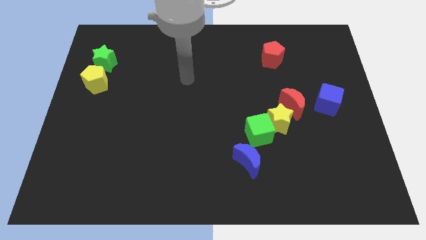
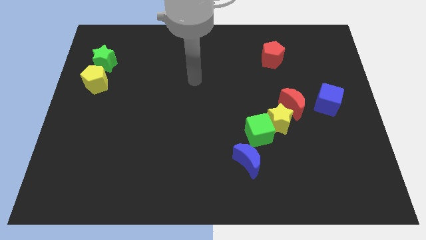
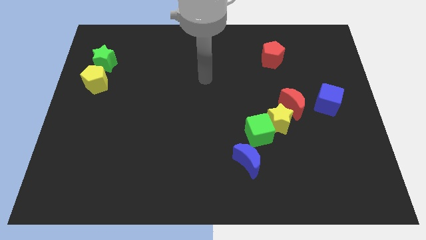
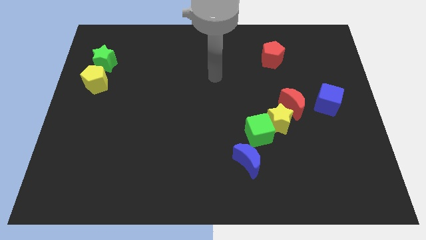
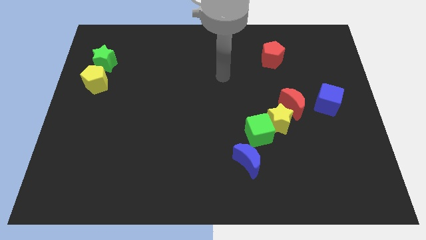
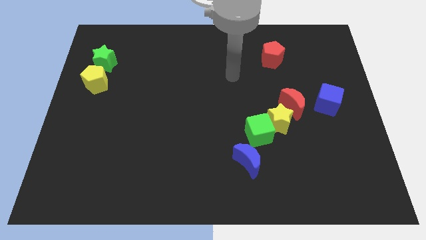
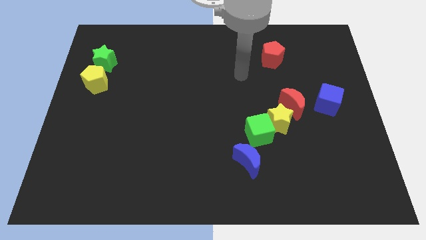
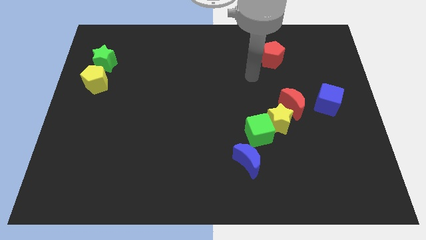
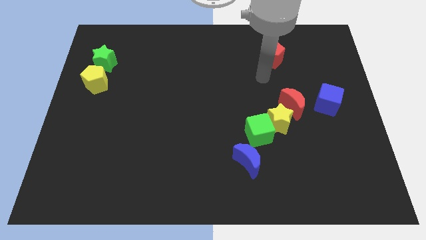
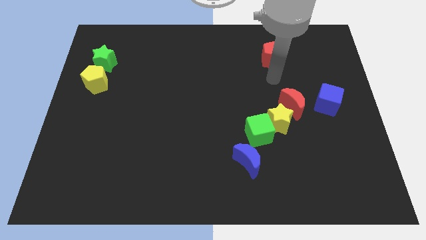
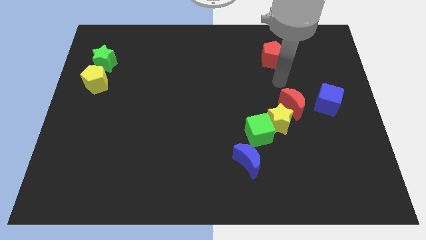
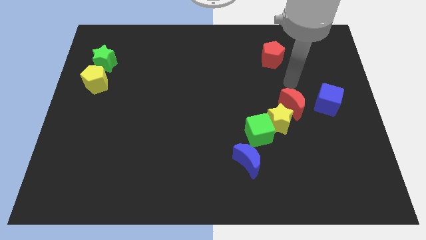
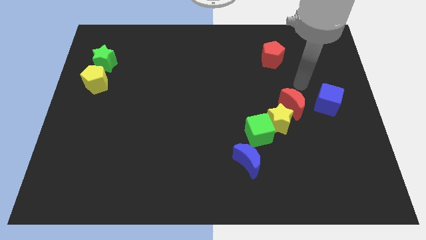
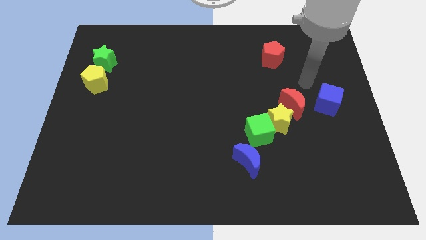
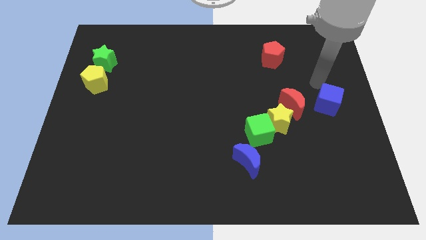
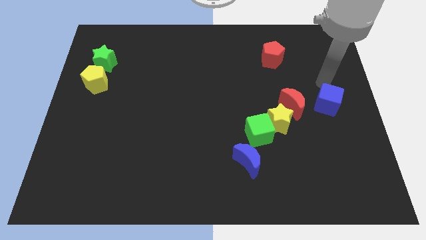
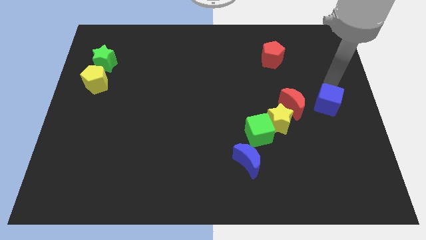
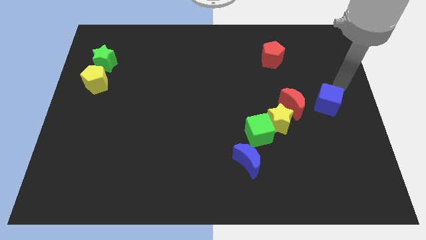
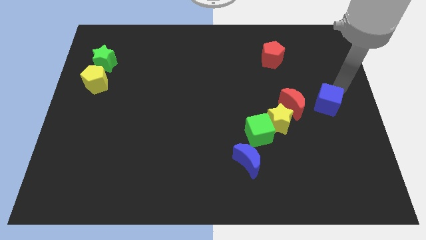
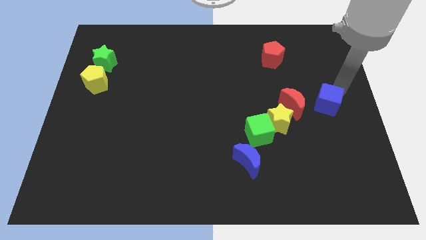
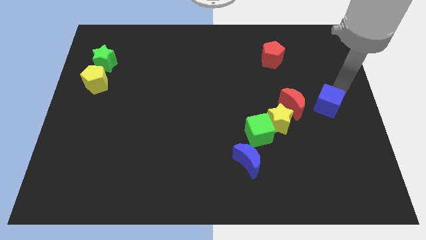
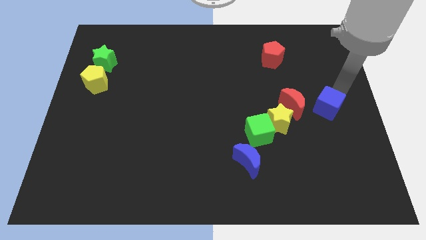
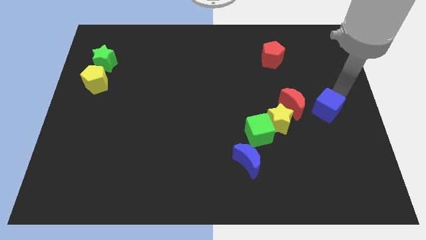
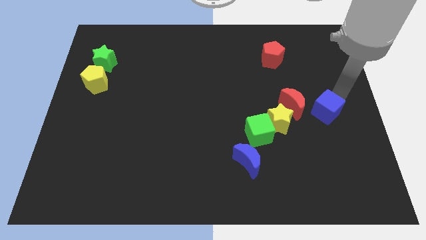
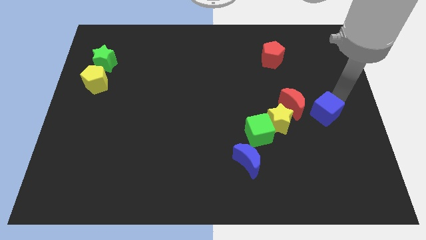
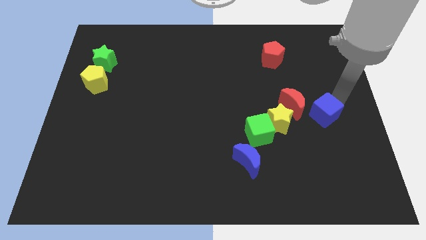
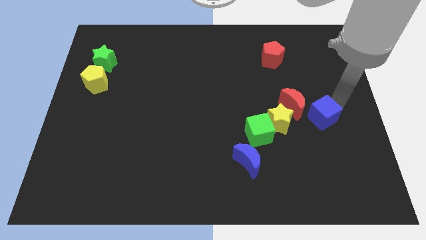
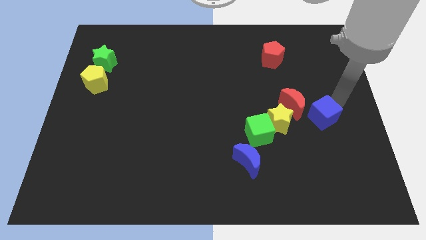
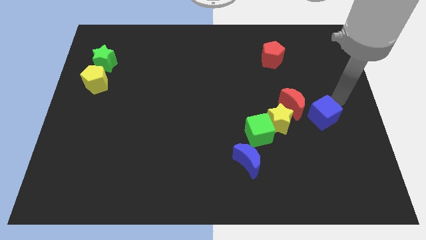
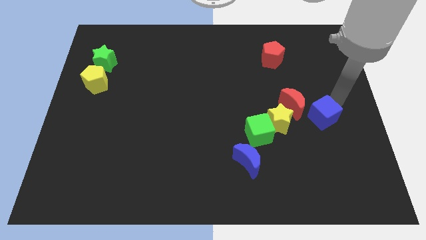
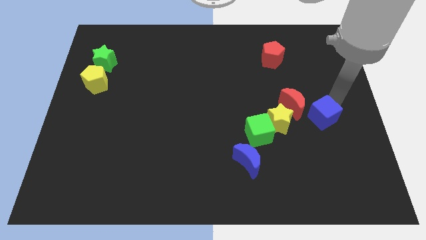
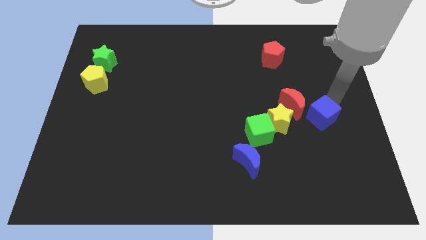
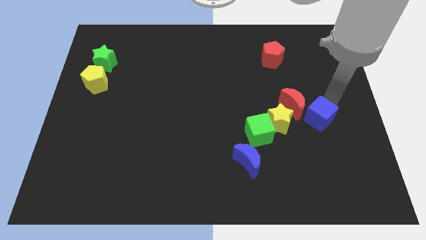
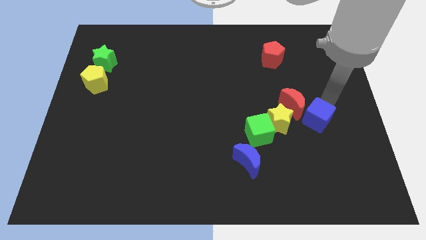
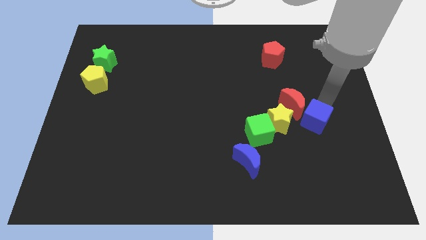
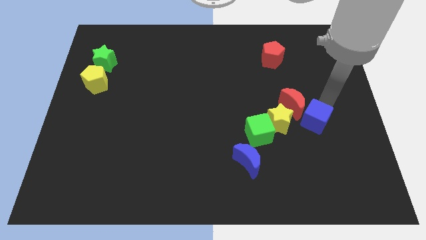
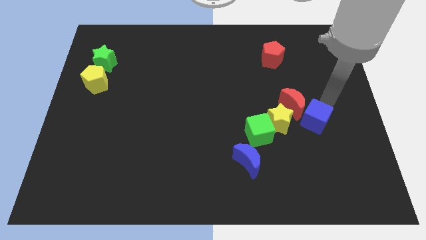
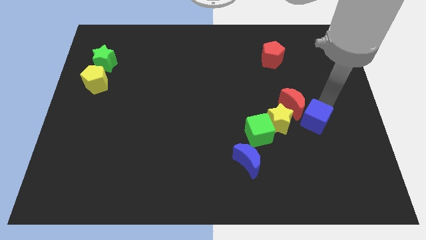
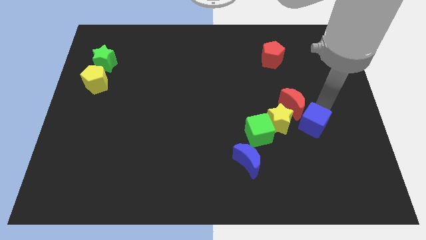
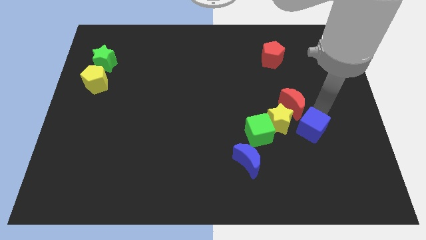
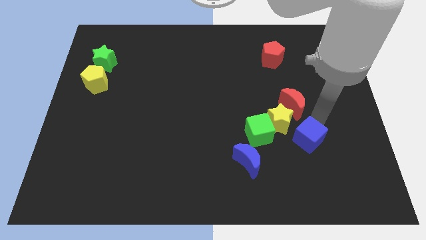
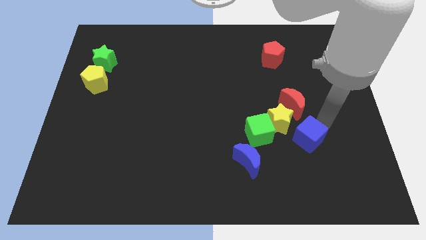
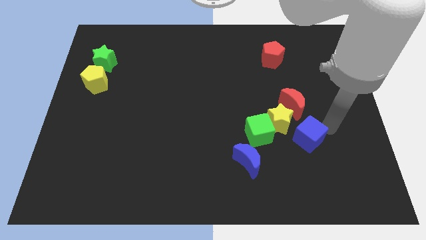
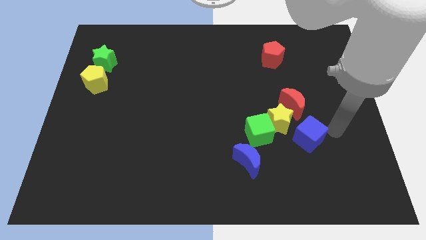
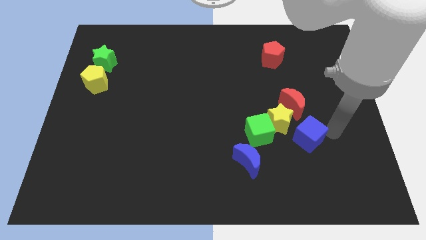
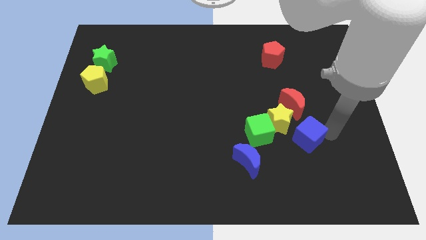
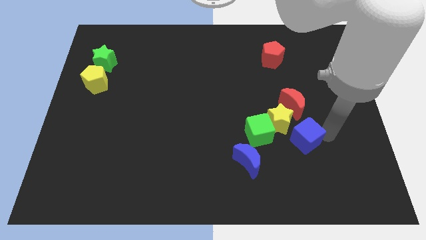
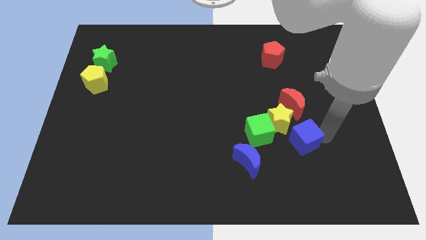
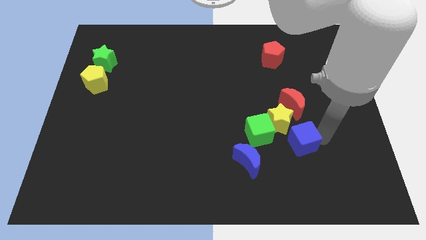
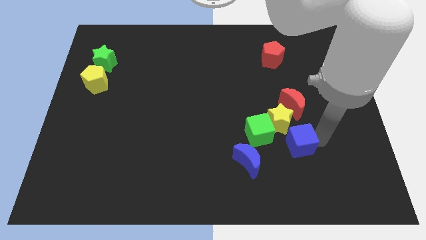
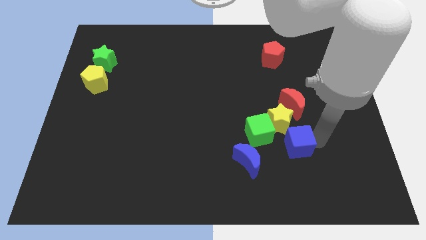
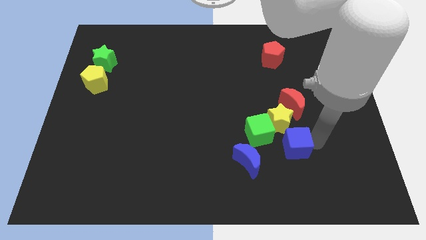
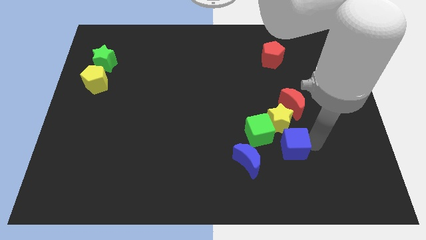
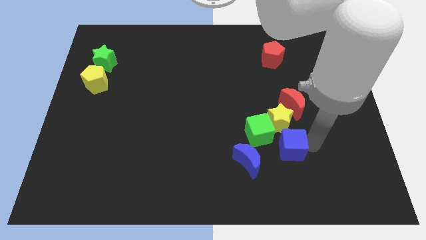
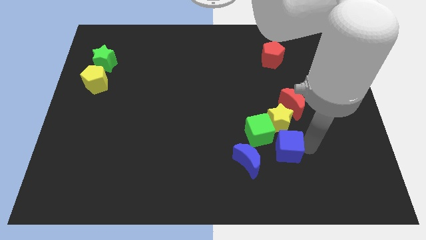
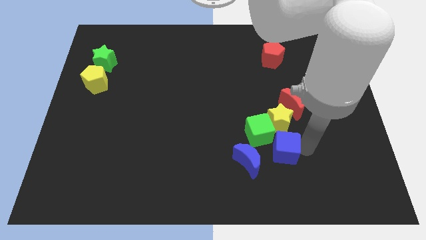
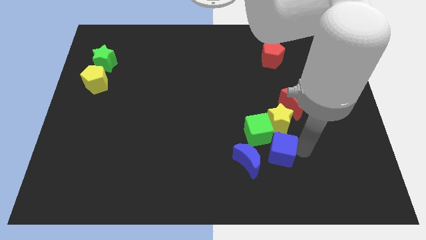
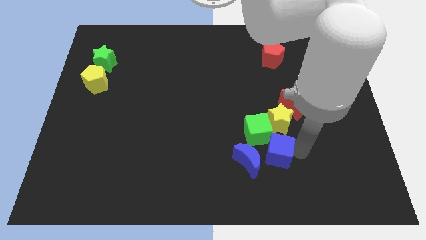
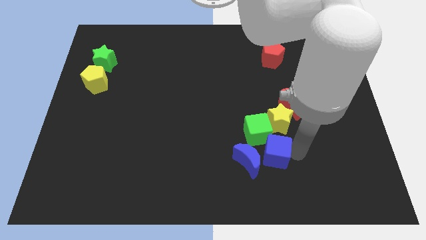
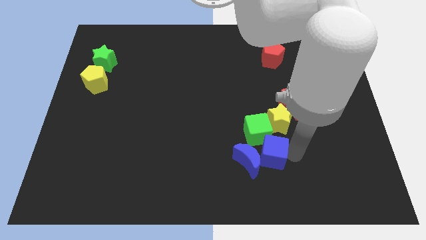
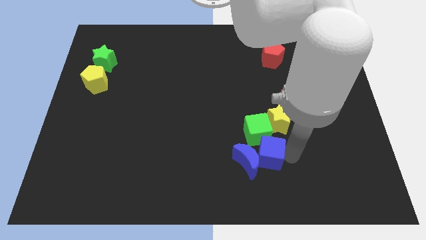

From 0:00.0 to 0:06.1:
move the blue cube next to the green cube

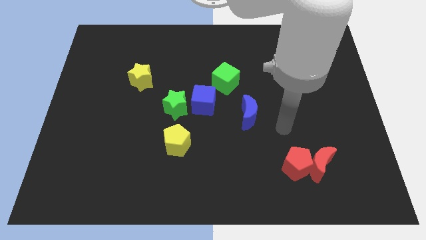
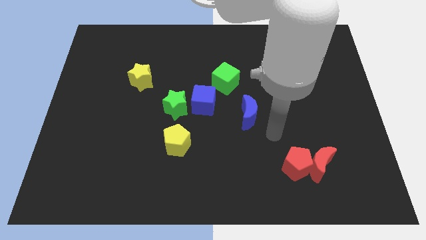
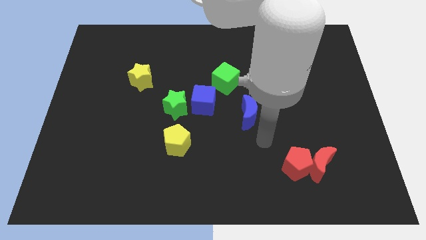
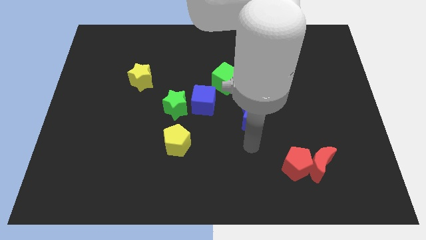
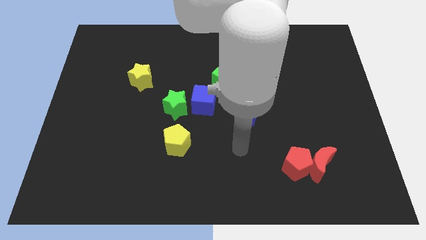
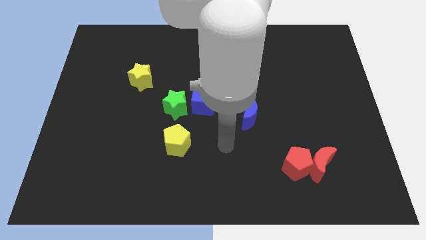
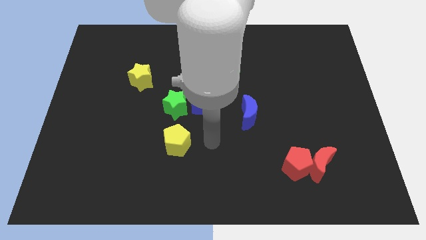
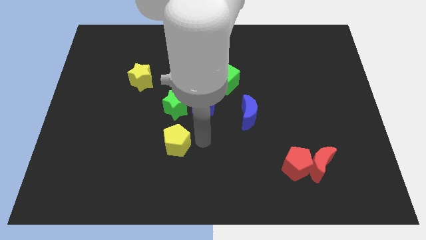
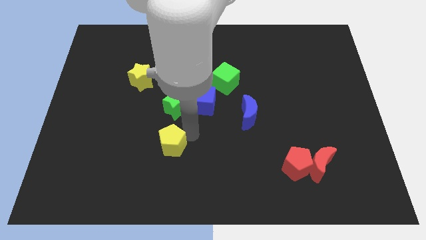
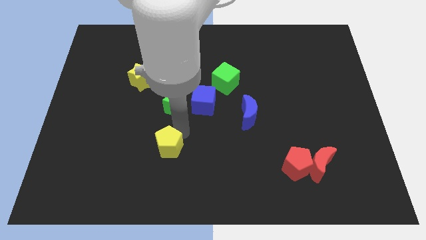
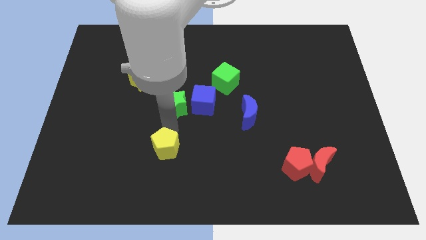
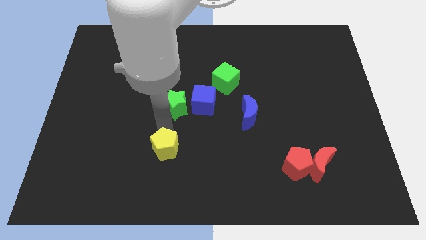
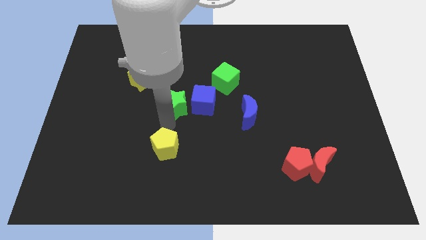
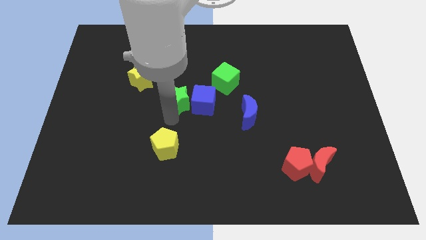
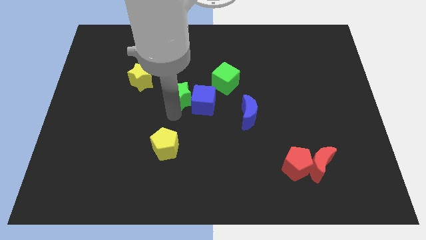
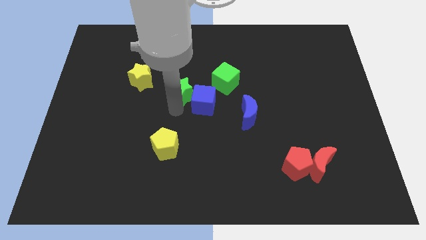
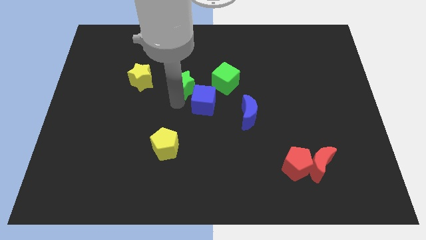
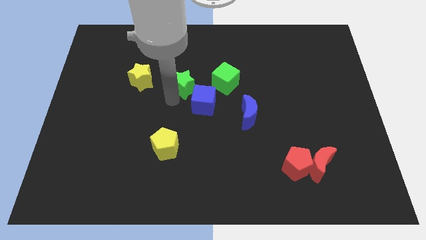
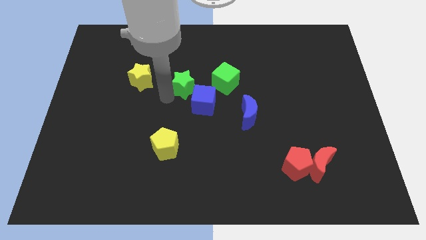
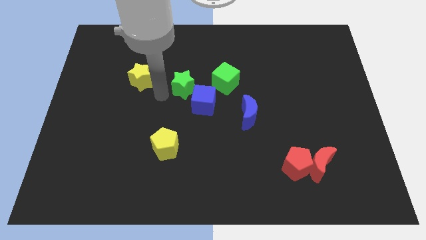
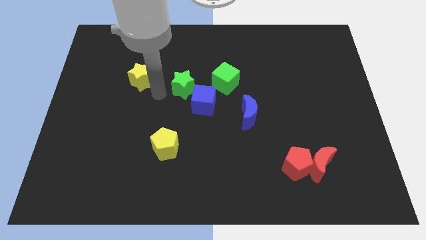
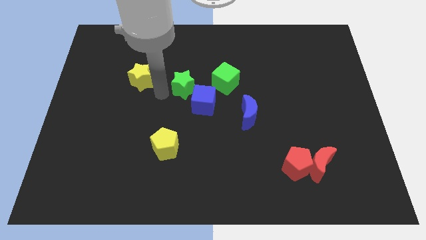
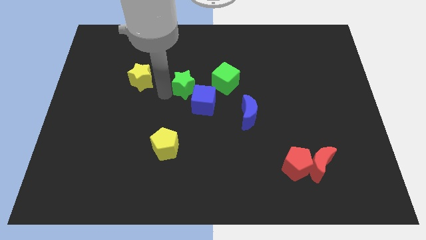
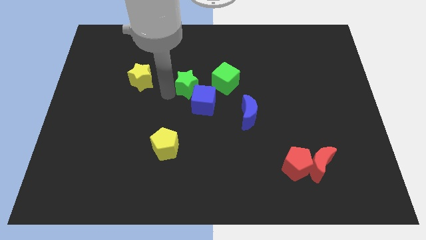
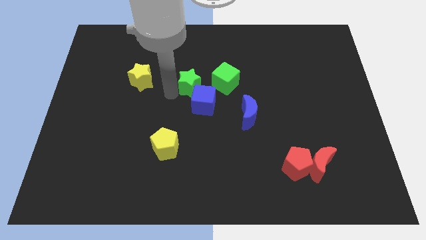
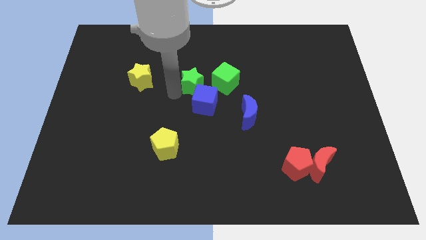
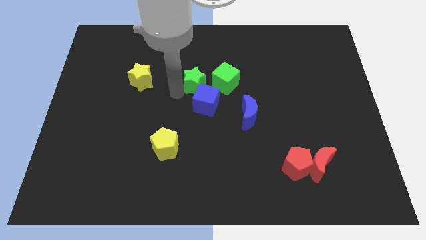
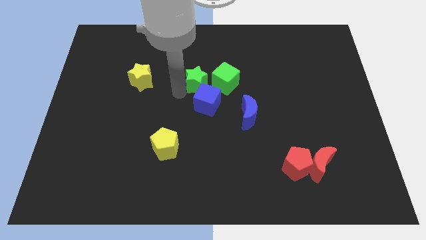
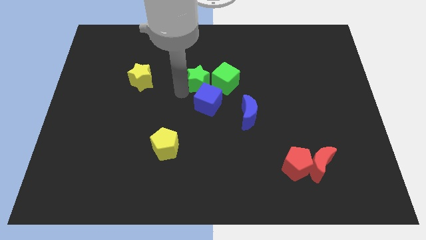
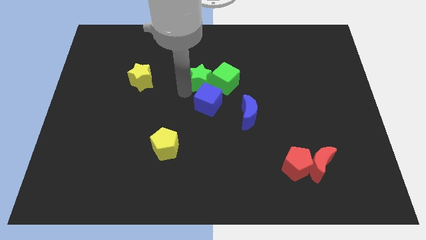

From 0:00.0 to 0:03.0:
push the green star towards the green cube
